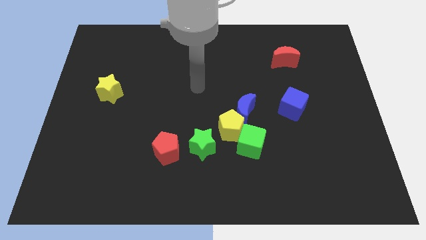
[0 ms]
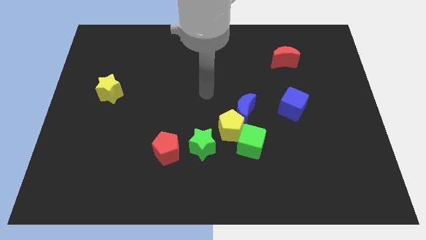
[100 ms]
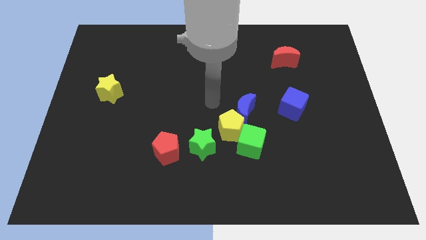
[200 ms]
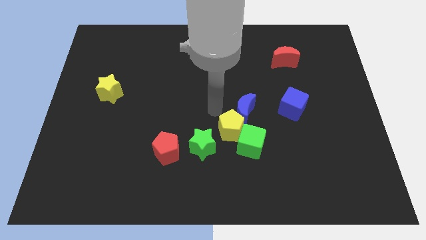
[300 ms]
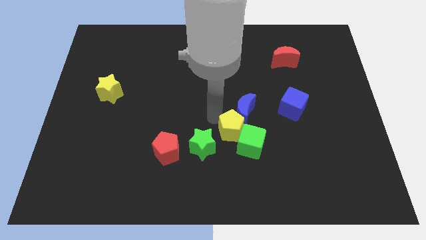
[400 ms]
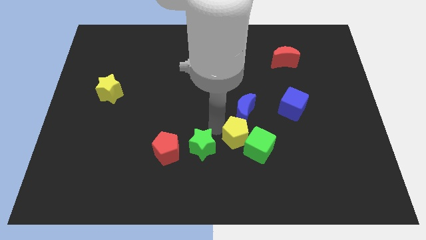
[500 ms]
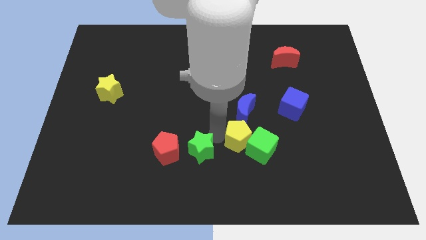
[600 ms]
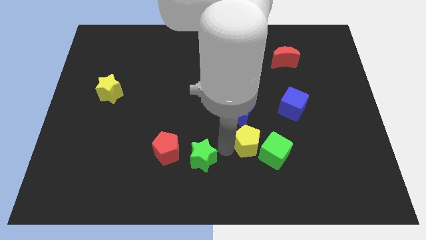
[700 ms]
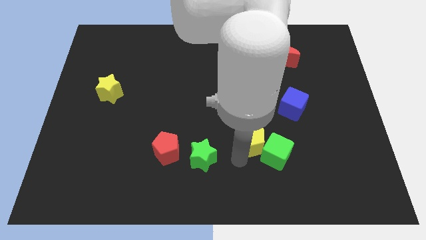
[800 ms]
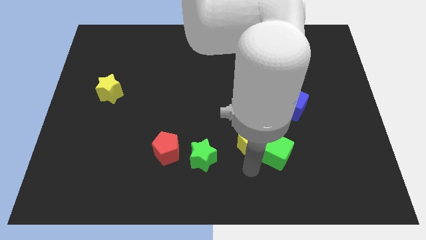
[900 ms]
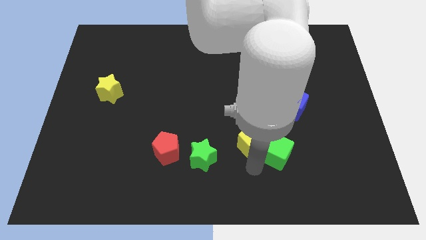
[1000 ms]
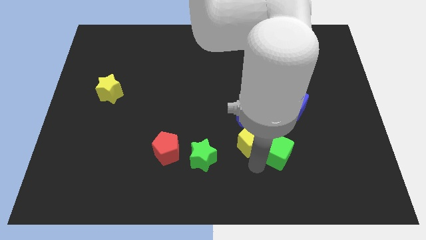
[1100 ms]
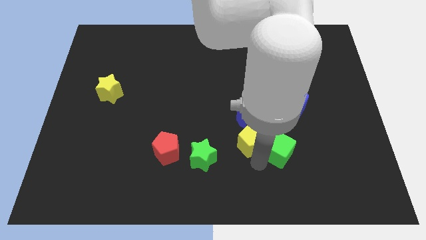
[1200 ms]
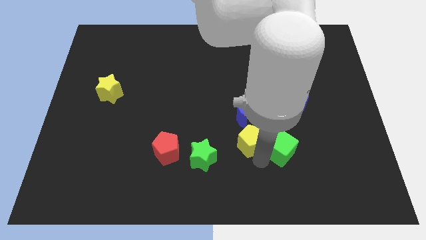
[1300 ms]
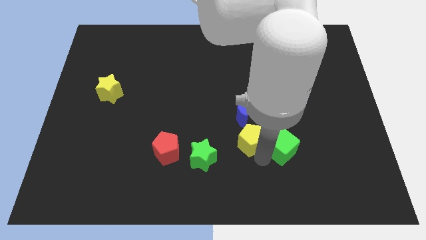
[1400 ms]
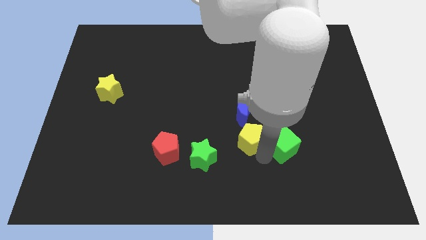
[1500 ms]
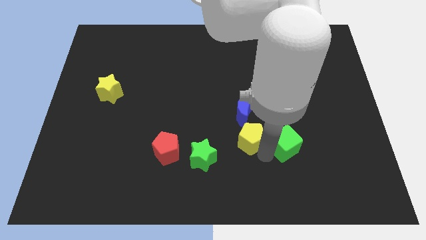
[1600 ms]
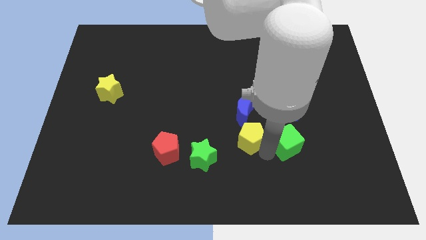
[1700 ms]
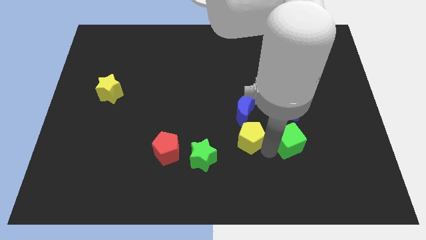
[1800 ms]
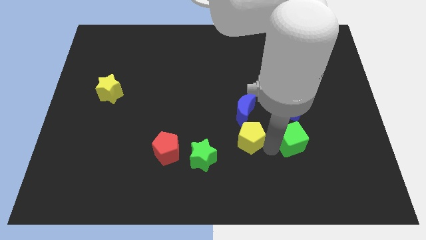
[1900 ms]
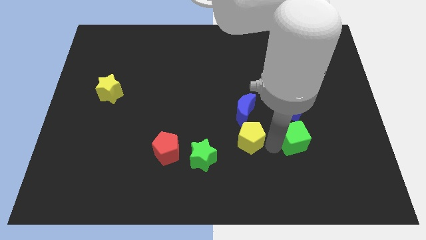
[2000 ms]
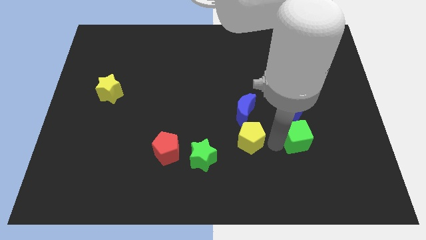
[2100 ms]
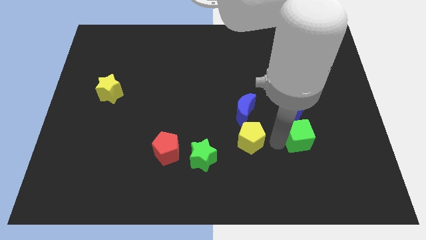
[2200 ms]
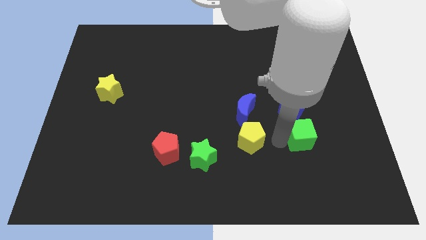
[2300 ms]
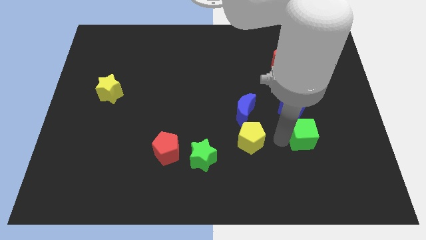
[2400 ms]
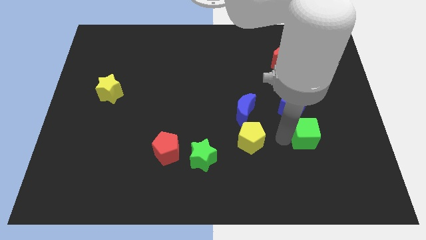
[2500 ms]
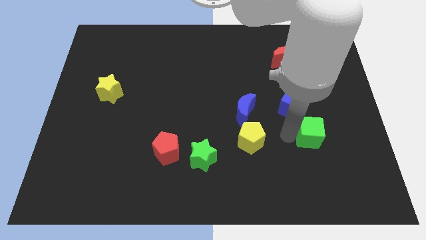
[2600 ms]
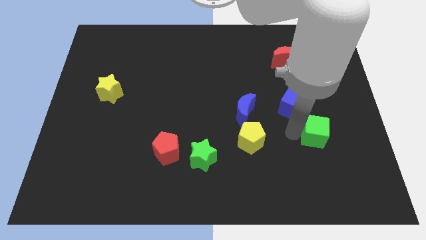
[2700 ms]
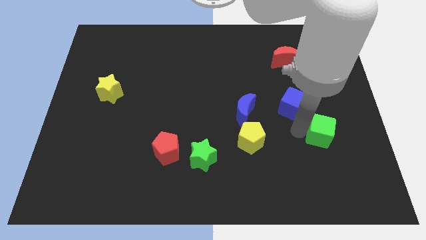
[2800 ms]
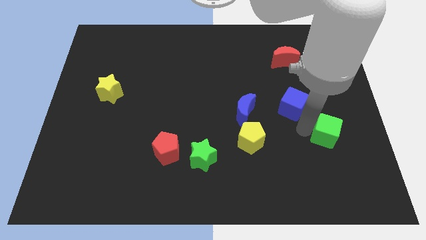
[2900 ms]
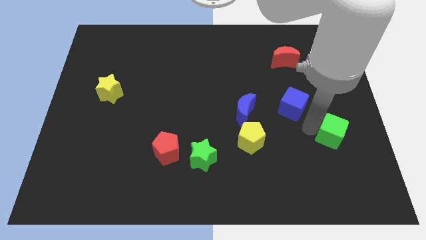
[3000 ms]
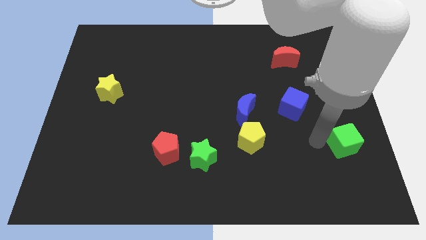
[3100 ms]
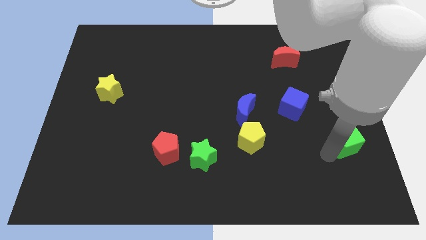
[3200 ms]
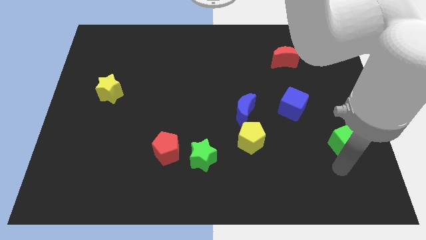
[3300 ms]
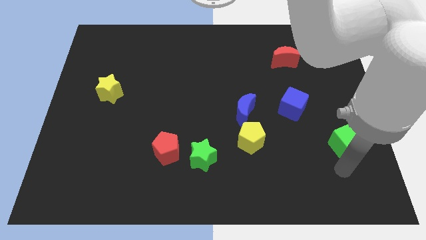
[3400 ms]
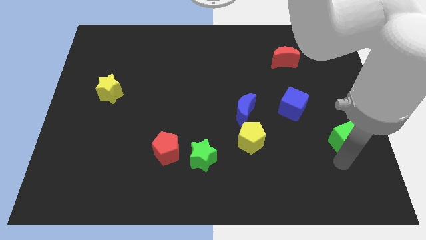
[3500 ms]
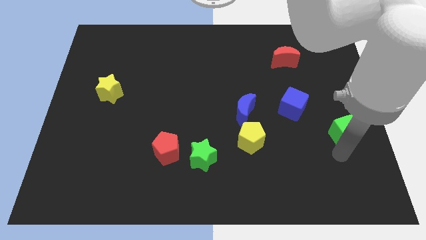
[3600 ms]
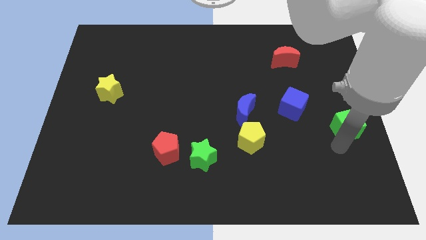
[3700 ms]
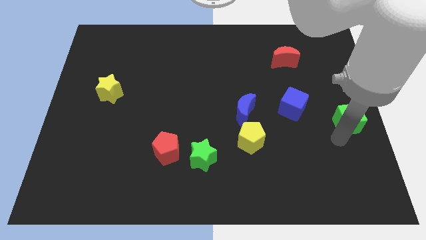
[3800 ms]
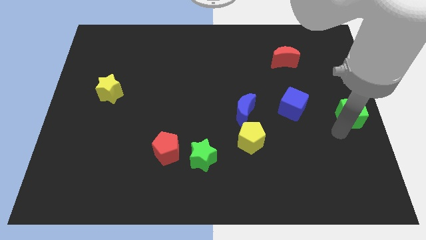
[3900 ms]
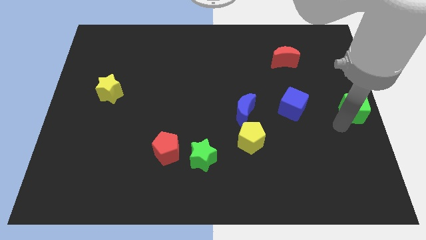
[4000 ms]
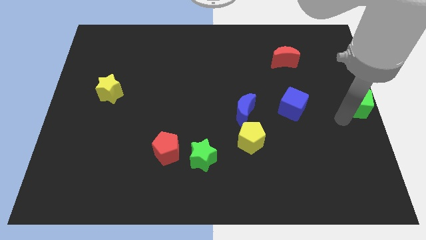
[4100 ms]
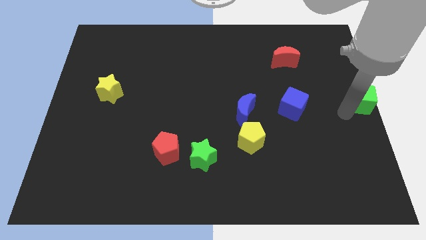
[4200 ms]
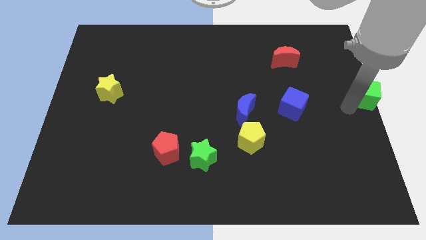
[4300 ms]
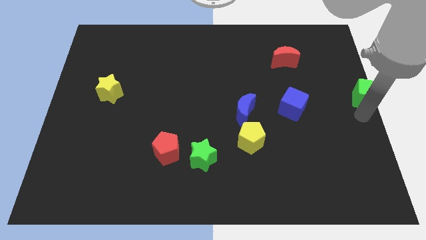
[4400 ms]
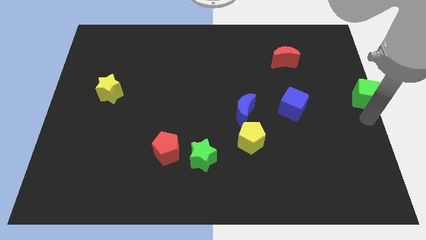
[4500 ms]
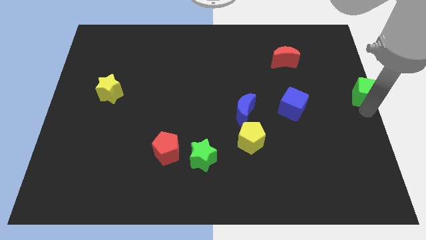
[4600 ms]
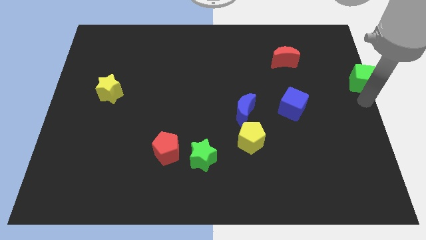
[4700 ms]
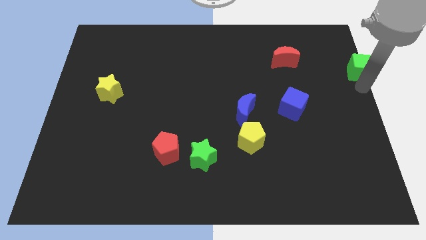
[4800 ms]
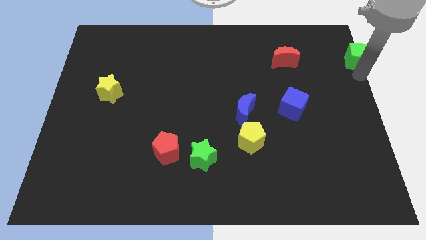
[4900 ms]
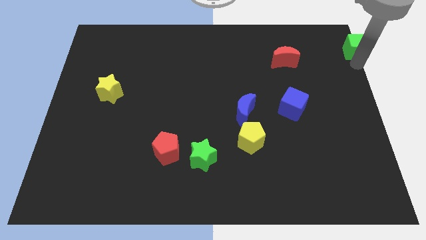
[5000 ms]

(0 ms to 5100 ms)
move the green cube to the top right corner

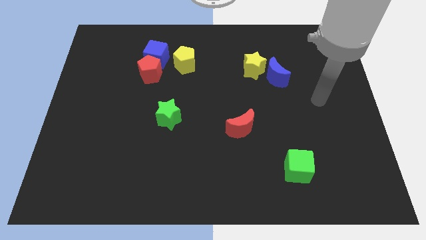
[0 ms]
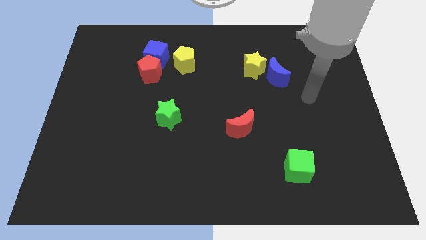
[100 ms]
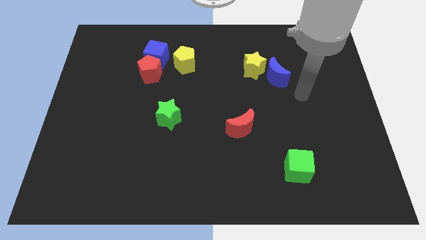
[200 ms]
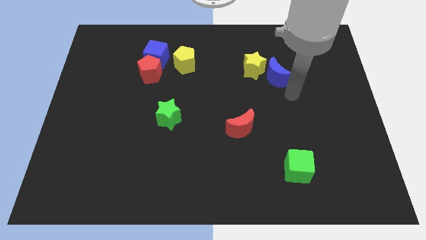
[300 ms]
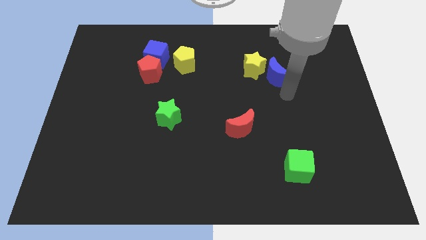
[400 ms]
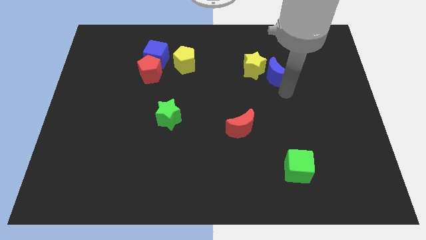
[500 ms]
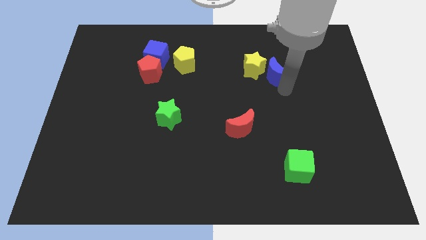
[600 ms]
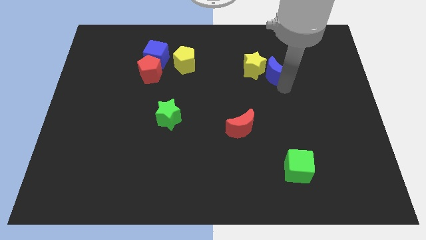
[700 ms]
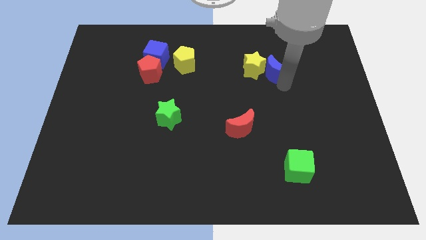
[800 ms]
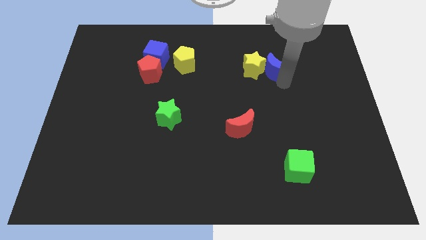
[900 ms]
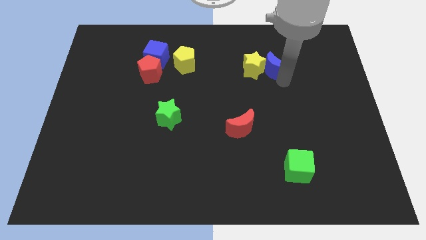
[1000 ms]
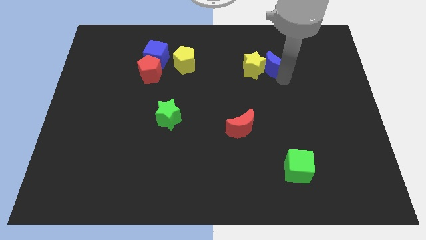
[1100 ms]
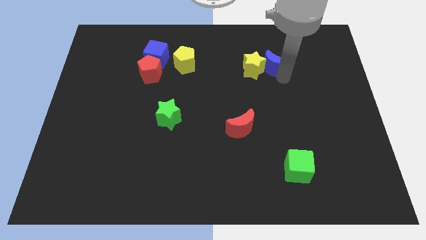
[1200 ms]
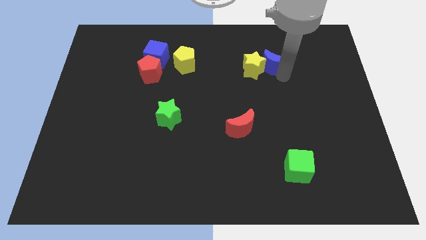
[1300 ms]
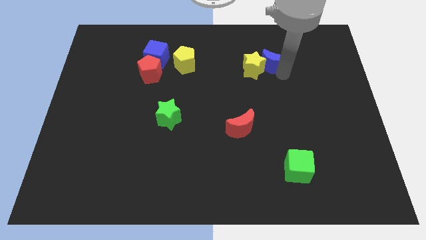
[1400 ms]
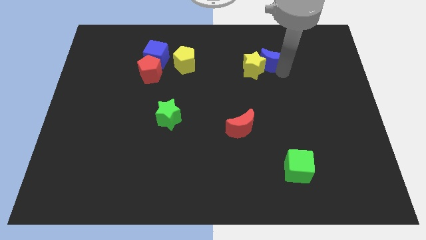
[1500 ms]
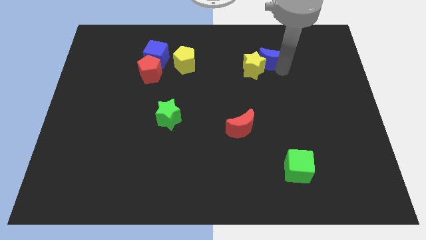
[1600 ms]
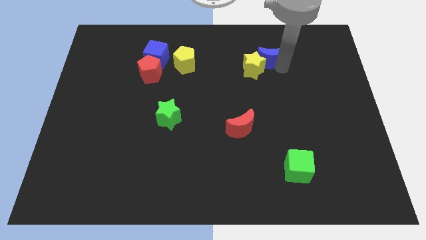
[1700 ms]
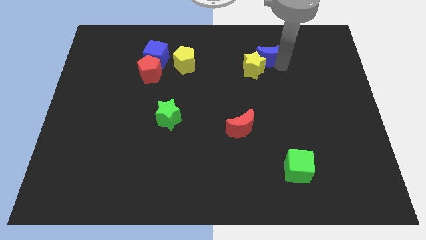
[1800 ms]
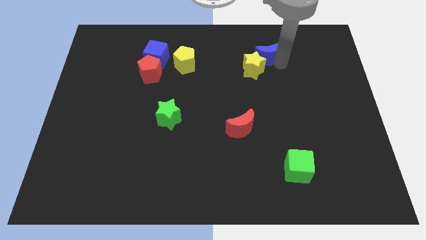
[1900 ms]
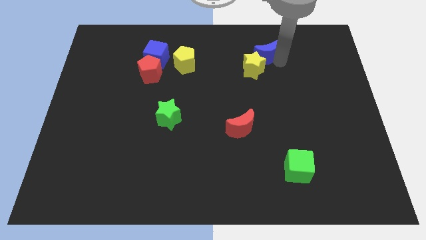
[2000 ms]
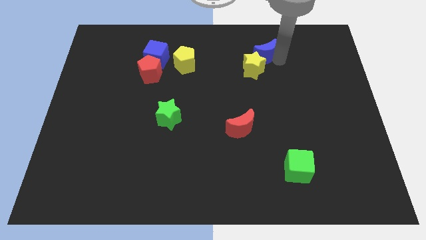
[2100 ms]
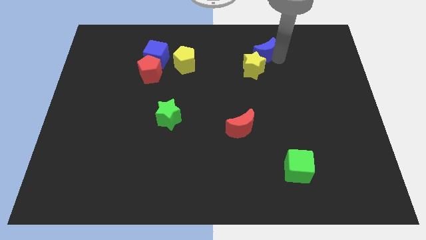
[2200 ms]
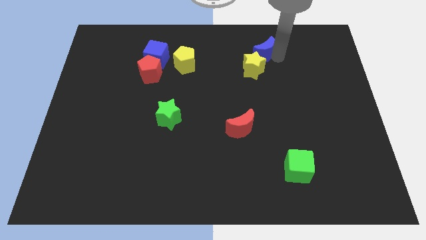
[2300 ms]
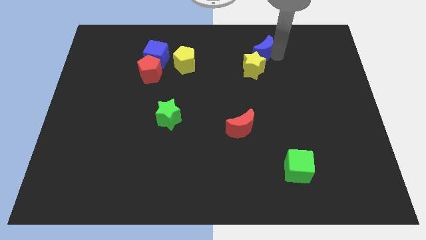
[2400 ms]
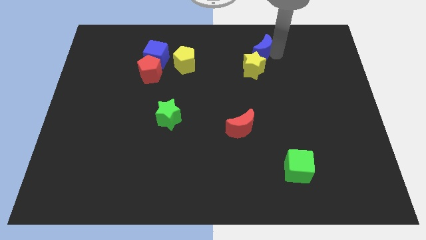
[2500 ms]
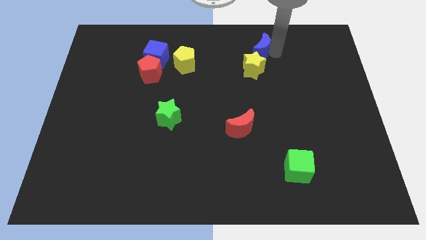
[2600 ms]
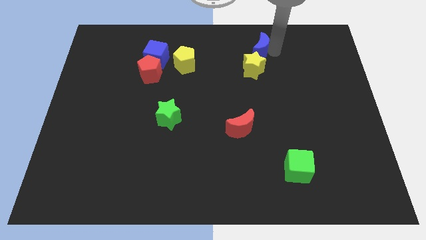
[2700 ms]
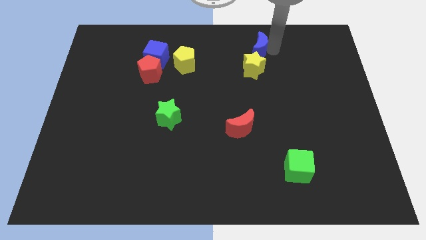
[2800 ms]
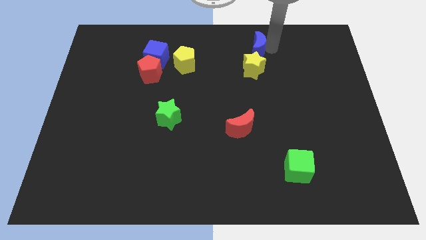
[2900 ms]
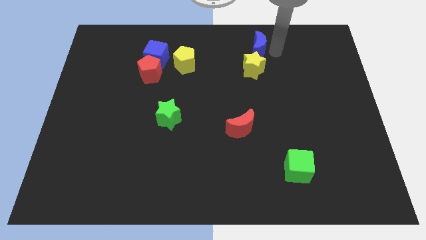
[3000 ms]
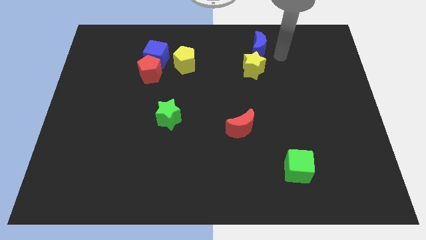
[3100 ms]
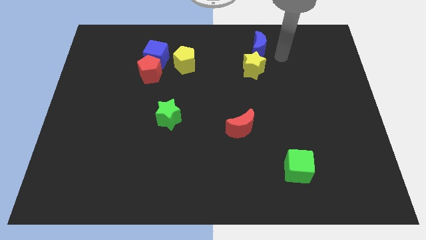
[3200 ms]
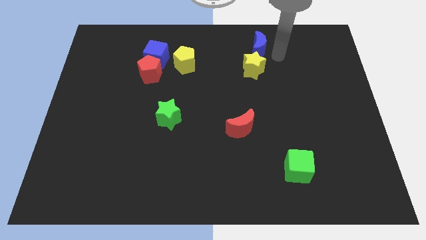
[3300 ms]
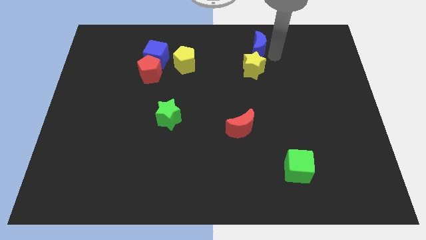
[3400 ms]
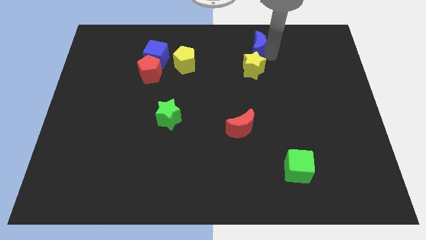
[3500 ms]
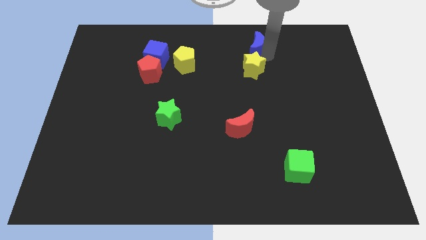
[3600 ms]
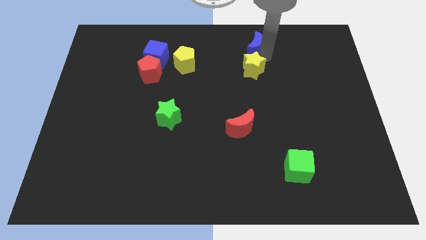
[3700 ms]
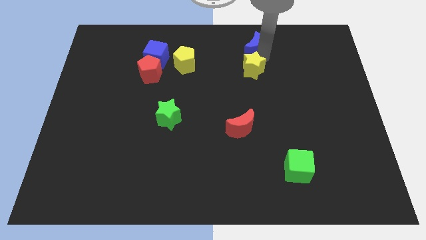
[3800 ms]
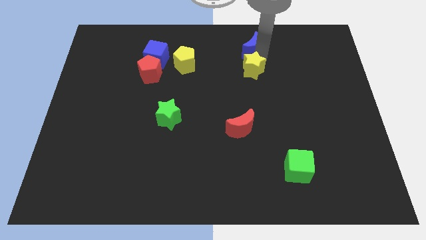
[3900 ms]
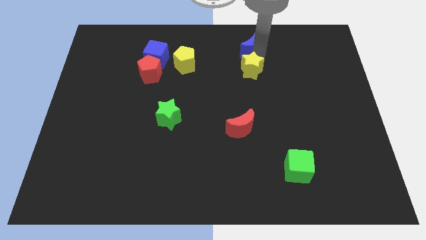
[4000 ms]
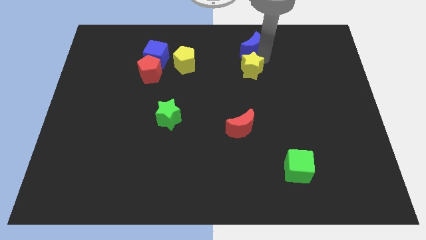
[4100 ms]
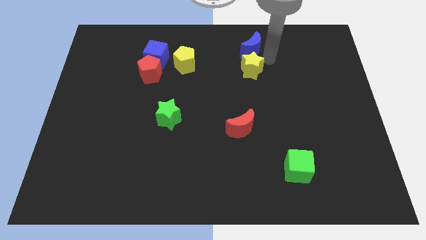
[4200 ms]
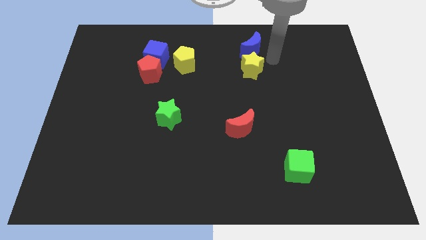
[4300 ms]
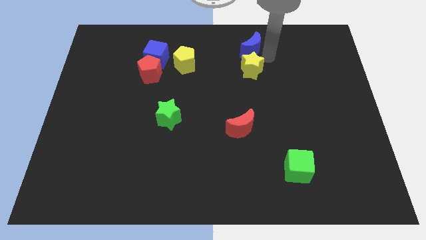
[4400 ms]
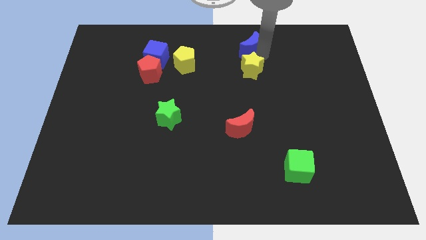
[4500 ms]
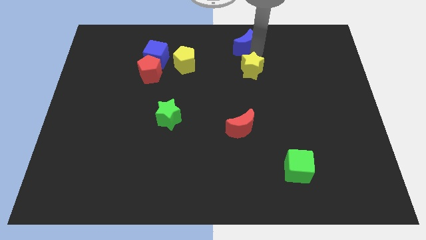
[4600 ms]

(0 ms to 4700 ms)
push the blue moon to the top
